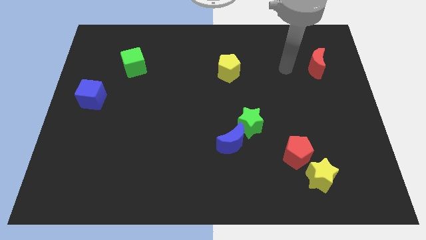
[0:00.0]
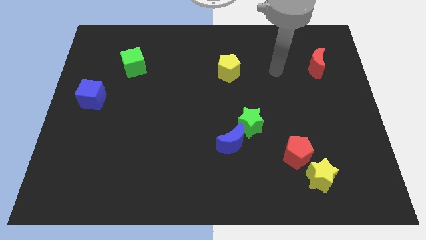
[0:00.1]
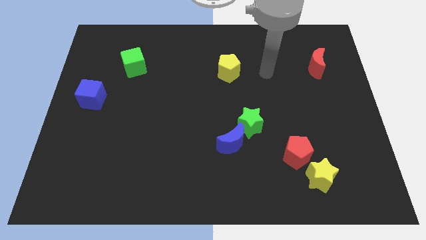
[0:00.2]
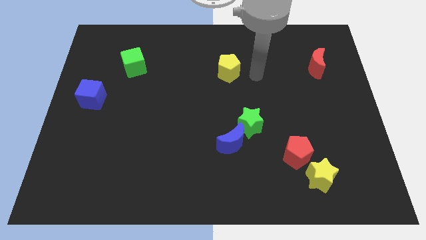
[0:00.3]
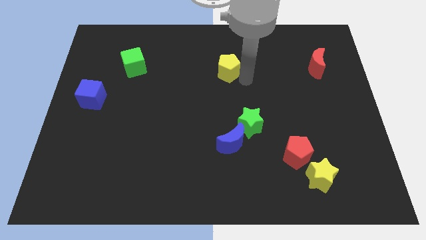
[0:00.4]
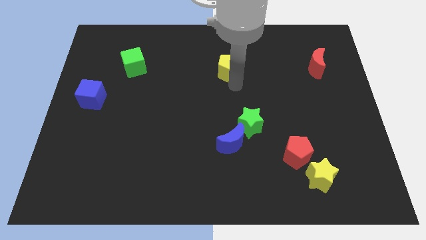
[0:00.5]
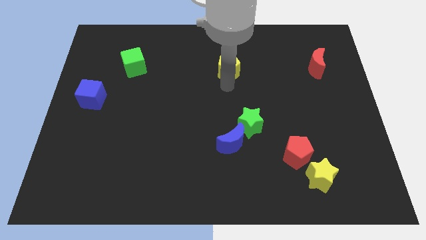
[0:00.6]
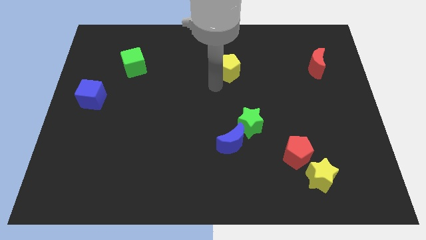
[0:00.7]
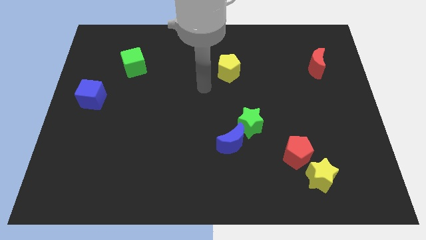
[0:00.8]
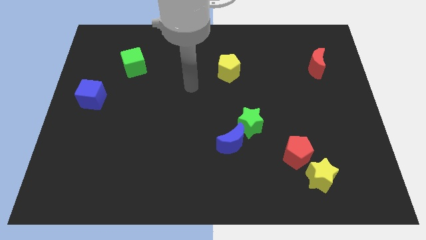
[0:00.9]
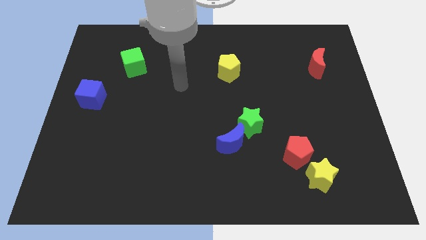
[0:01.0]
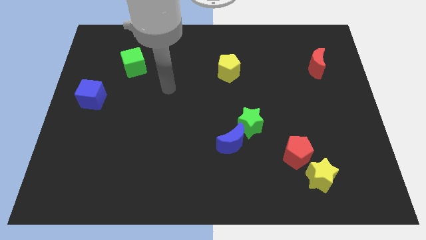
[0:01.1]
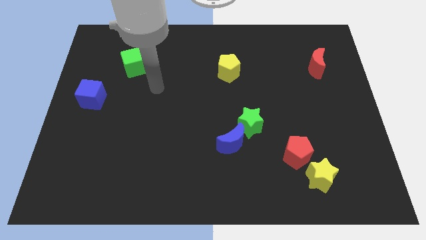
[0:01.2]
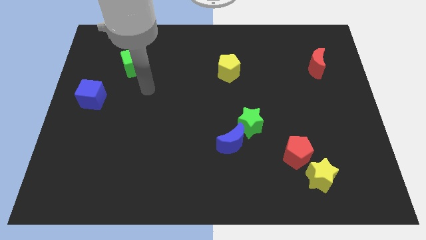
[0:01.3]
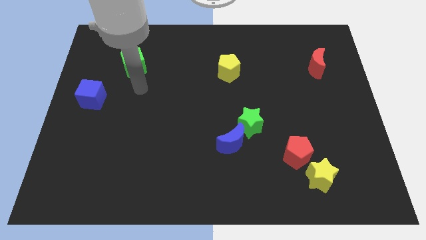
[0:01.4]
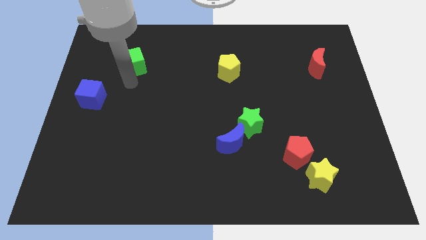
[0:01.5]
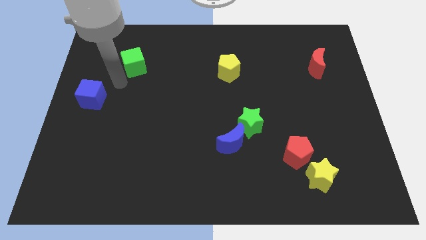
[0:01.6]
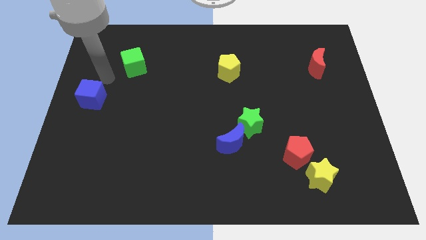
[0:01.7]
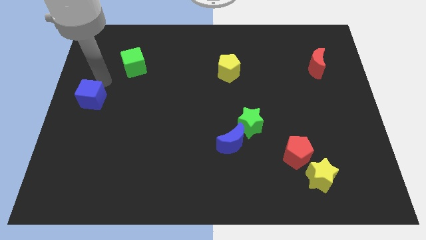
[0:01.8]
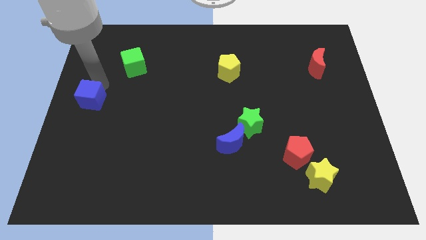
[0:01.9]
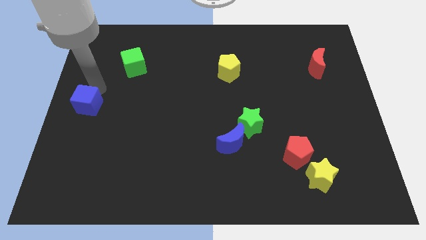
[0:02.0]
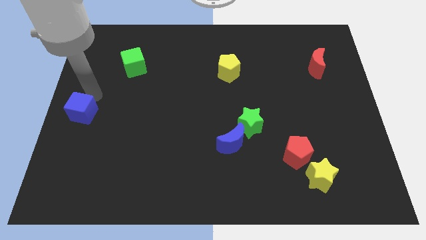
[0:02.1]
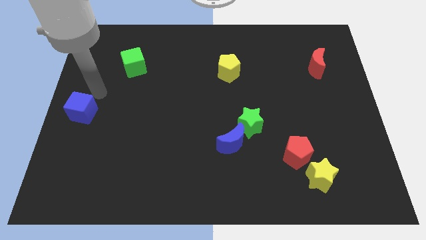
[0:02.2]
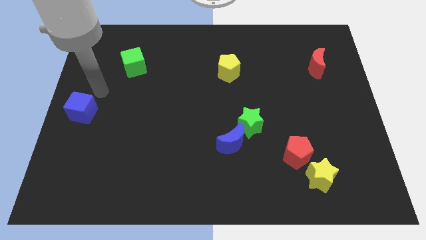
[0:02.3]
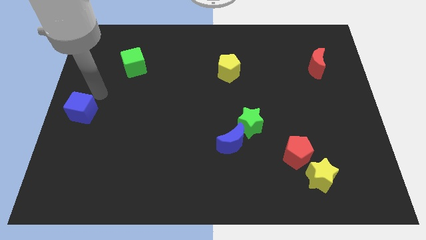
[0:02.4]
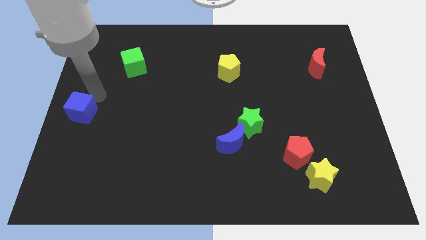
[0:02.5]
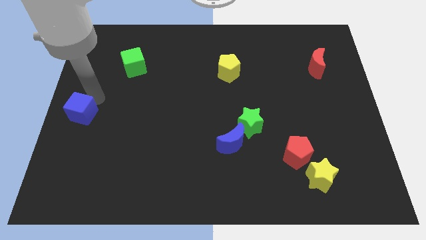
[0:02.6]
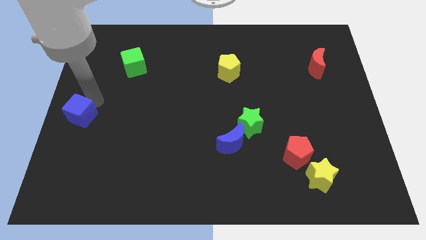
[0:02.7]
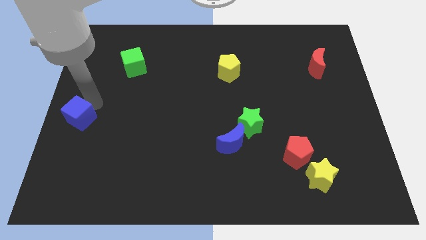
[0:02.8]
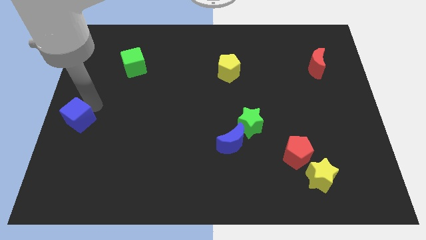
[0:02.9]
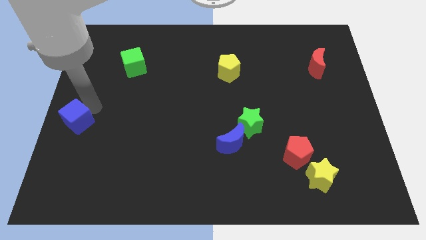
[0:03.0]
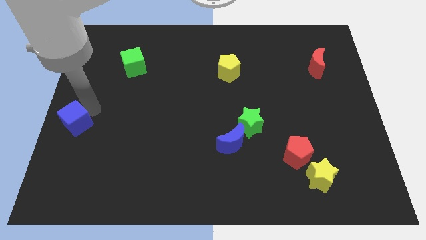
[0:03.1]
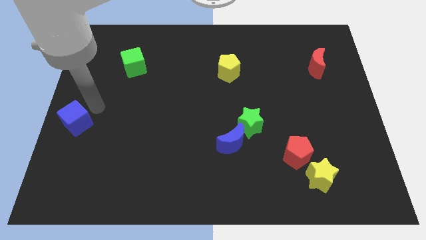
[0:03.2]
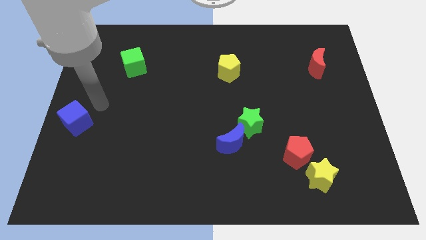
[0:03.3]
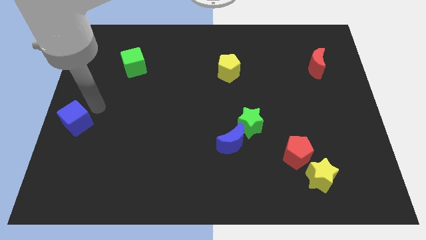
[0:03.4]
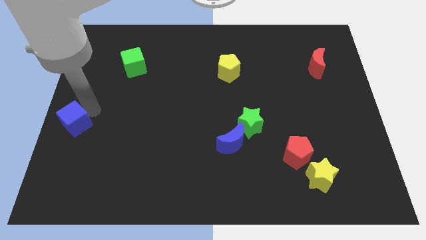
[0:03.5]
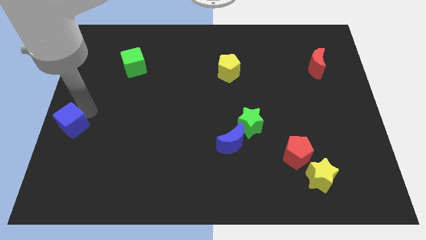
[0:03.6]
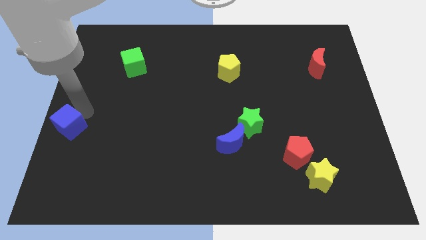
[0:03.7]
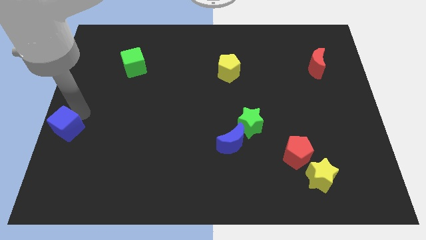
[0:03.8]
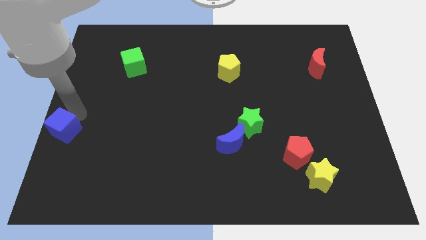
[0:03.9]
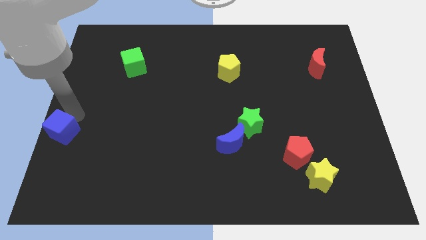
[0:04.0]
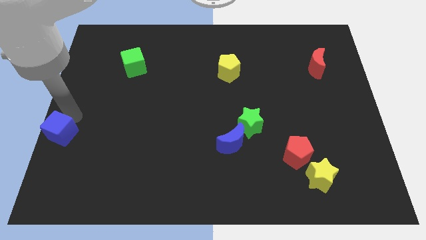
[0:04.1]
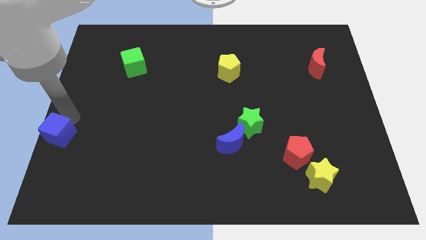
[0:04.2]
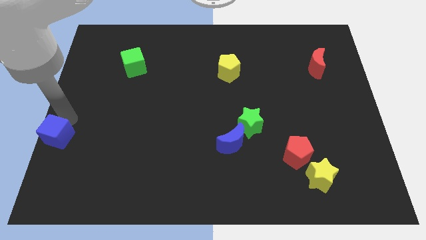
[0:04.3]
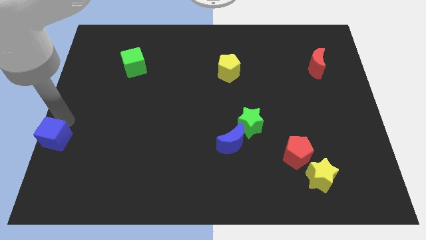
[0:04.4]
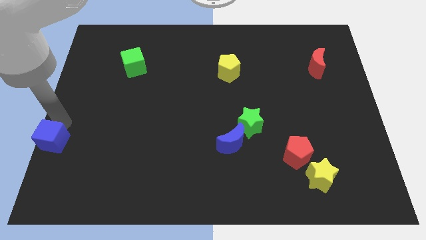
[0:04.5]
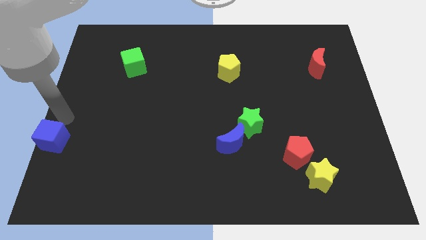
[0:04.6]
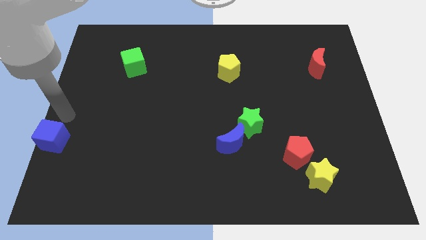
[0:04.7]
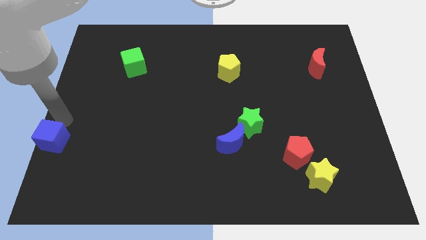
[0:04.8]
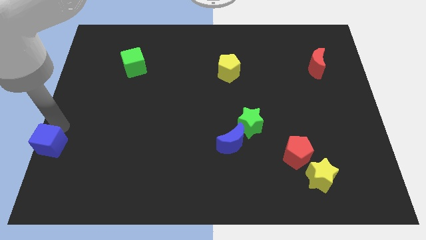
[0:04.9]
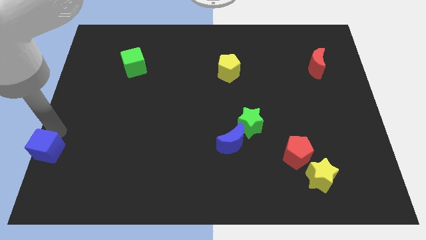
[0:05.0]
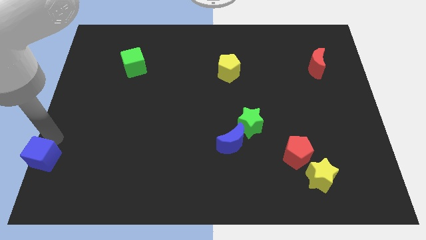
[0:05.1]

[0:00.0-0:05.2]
put the blue cube to the bottom left of the board

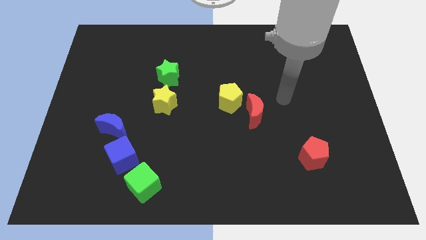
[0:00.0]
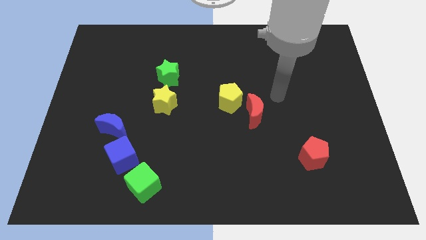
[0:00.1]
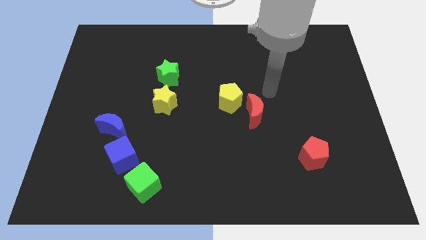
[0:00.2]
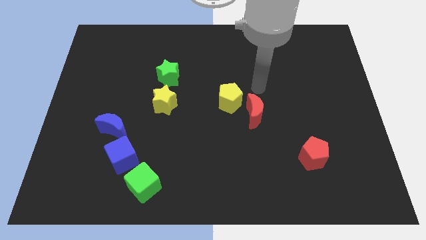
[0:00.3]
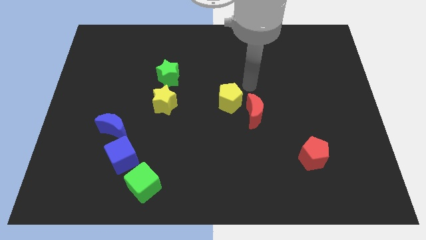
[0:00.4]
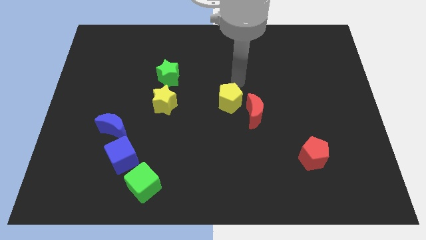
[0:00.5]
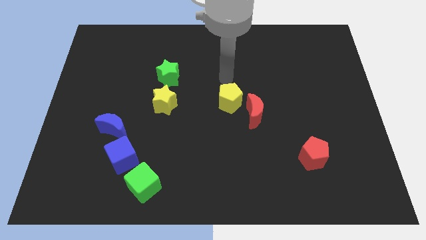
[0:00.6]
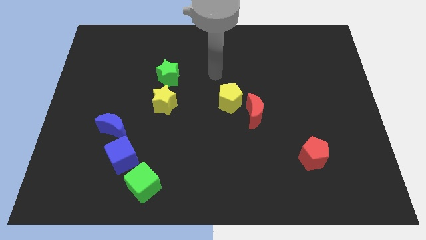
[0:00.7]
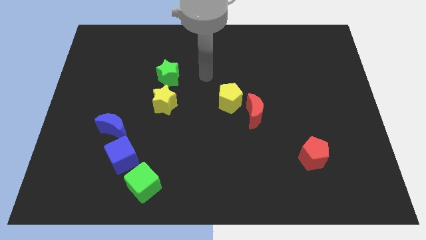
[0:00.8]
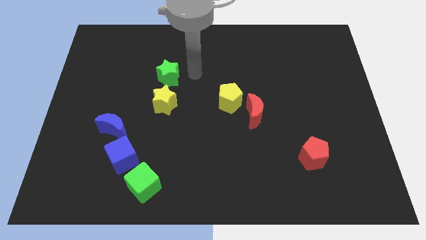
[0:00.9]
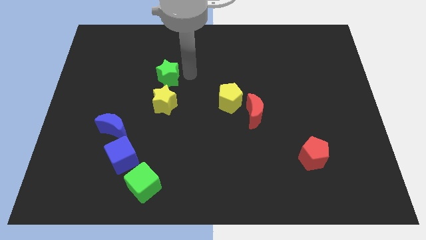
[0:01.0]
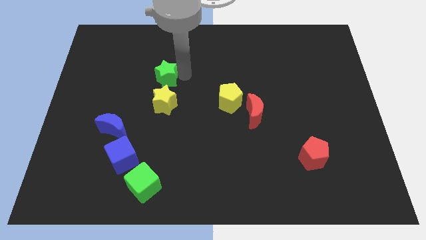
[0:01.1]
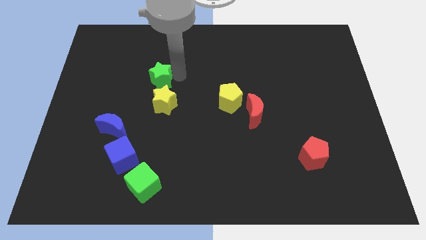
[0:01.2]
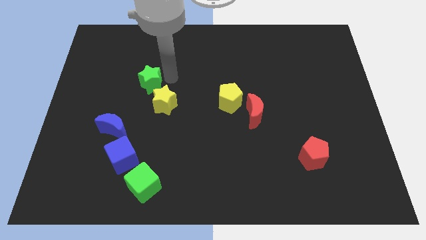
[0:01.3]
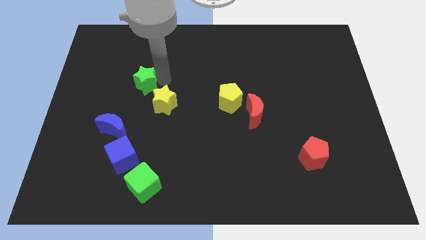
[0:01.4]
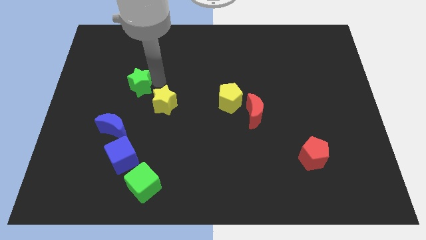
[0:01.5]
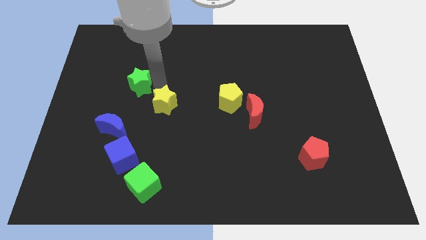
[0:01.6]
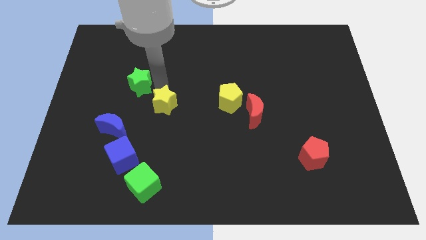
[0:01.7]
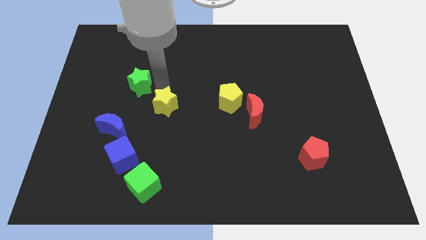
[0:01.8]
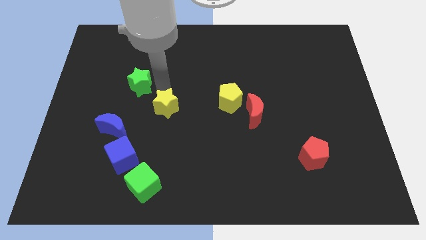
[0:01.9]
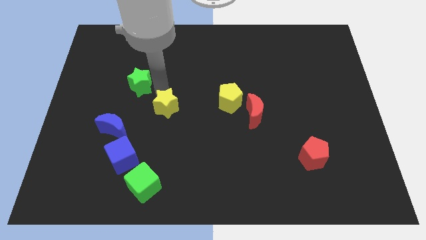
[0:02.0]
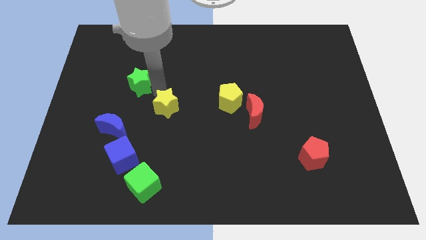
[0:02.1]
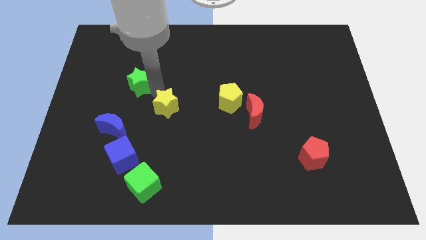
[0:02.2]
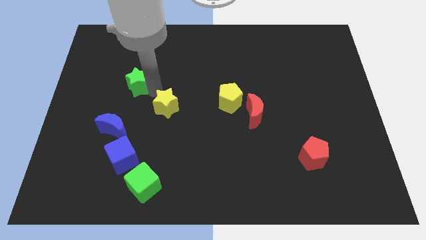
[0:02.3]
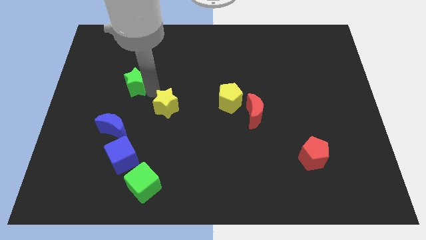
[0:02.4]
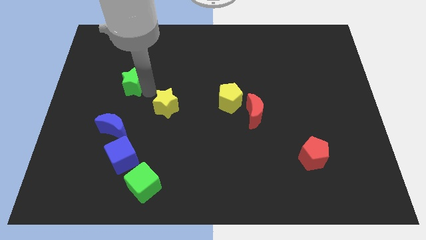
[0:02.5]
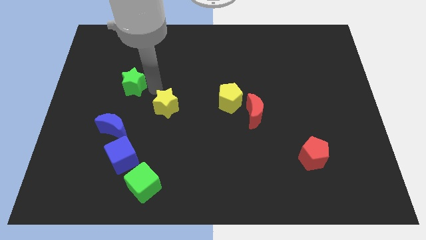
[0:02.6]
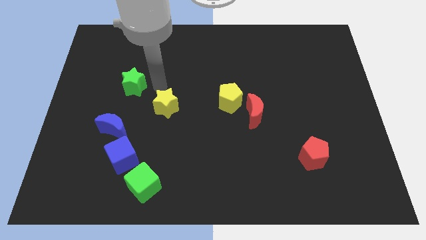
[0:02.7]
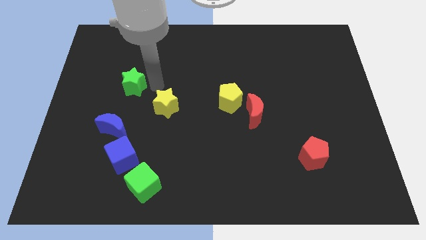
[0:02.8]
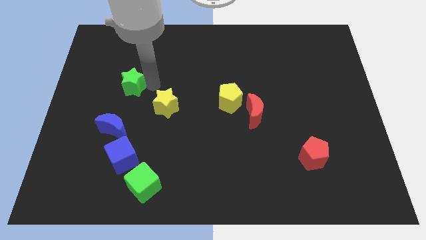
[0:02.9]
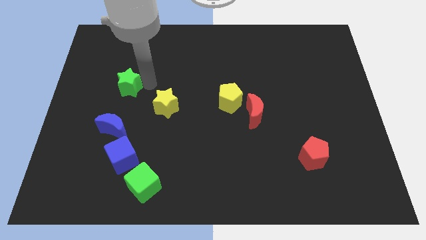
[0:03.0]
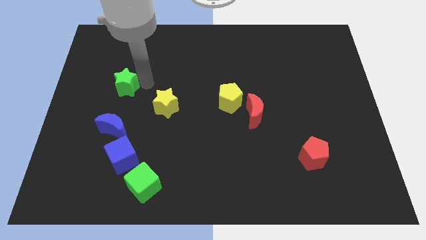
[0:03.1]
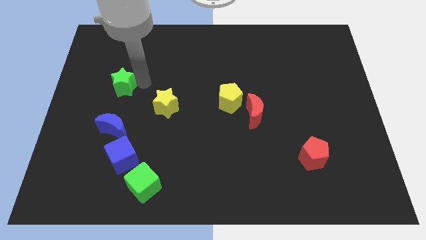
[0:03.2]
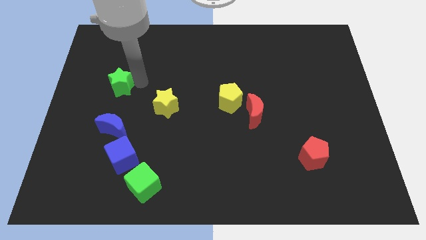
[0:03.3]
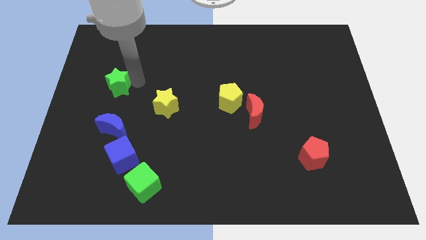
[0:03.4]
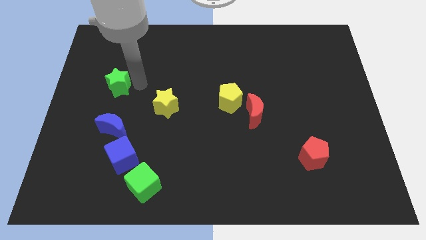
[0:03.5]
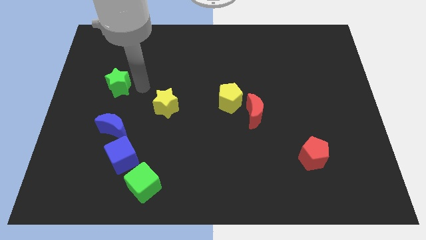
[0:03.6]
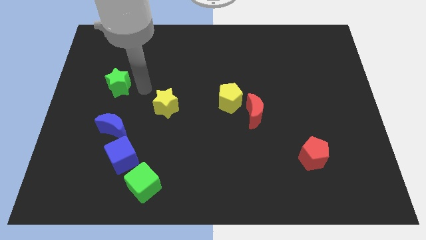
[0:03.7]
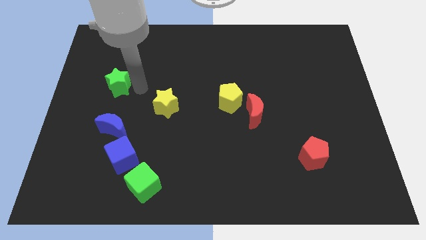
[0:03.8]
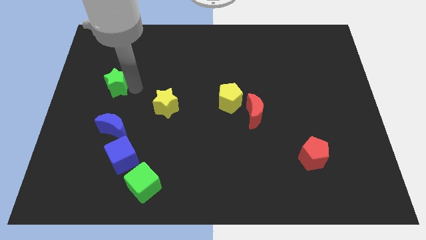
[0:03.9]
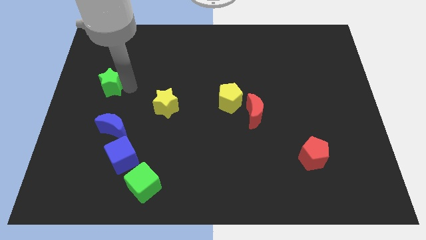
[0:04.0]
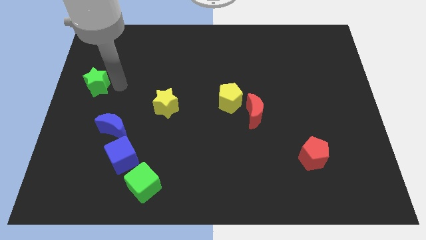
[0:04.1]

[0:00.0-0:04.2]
put the green star to the center left
